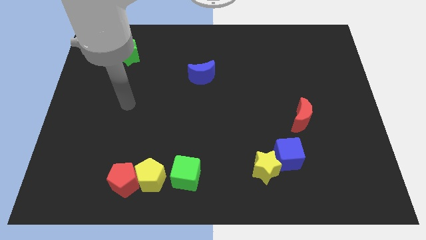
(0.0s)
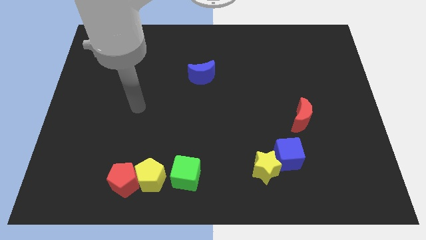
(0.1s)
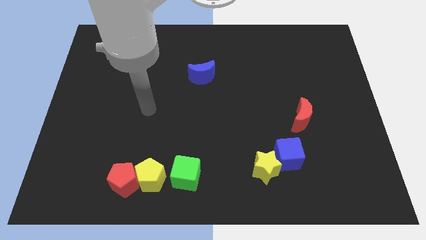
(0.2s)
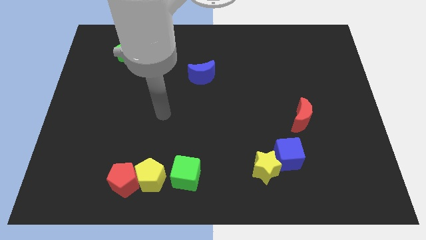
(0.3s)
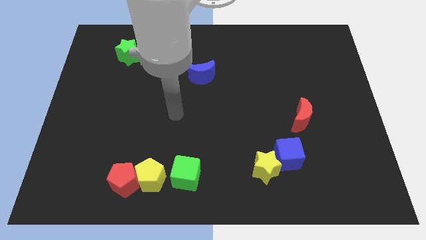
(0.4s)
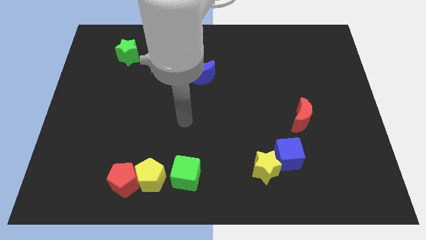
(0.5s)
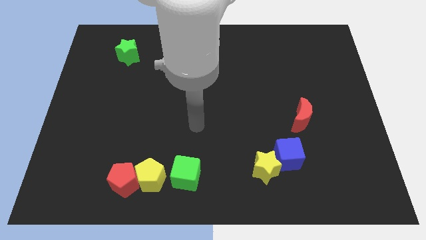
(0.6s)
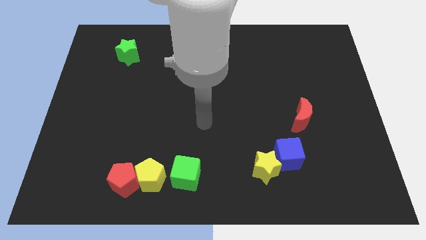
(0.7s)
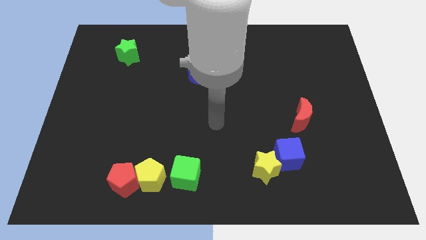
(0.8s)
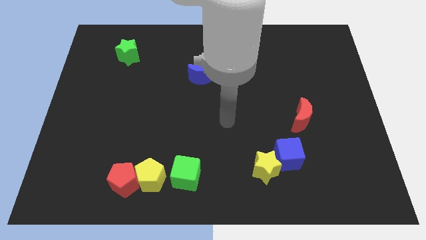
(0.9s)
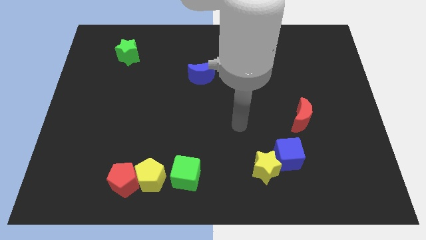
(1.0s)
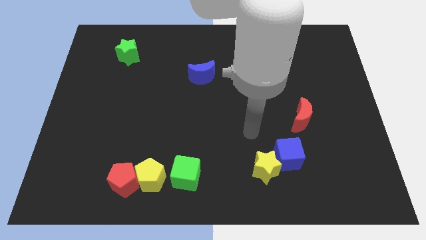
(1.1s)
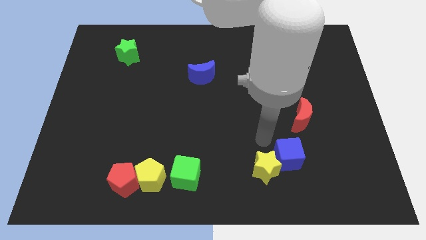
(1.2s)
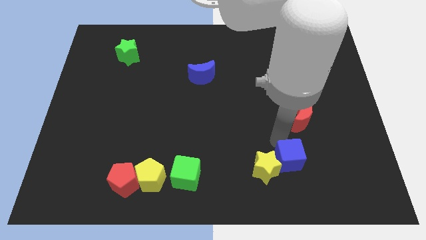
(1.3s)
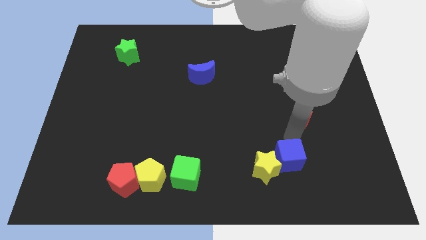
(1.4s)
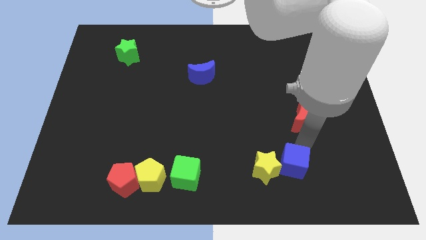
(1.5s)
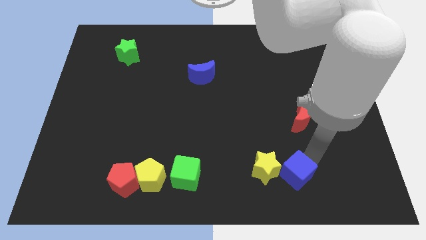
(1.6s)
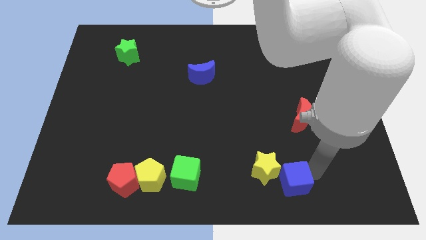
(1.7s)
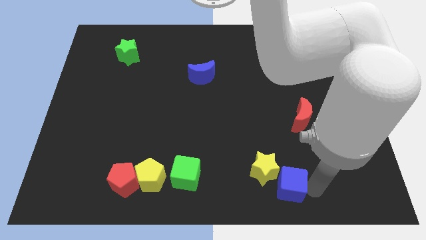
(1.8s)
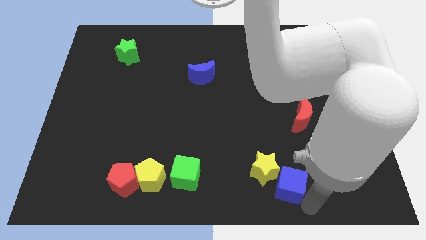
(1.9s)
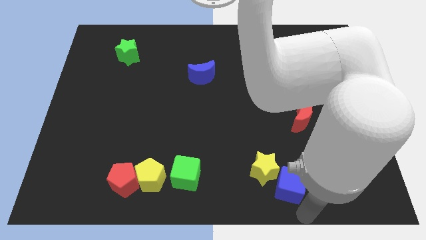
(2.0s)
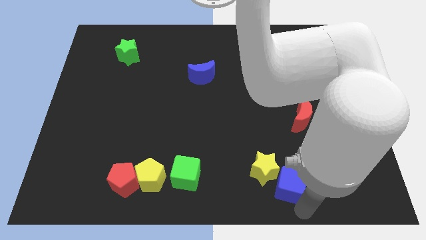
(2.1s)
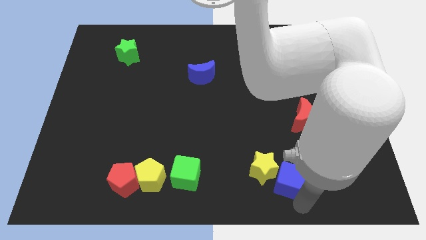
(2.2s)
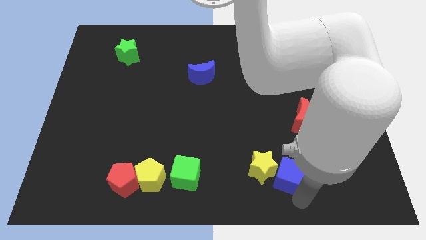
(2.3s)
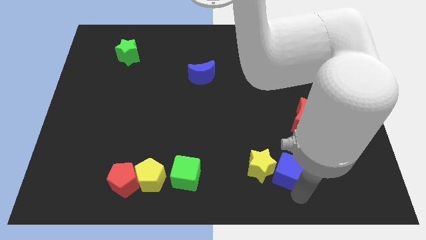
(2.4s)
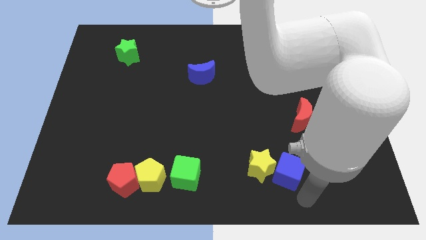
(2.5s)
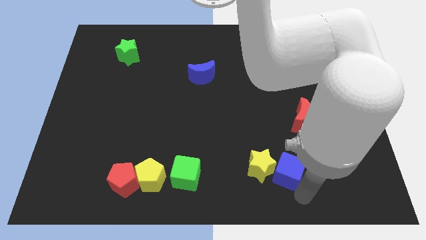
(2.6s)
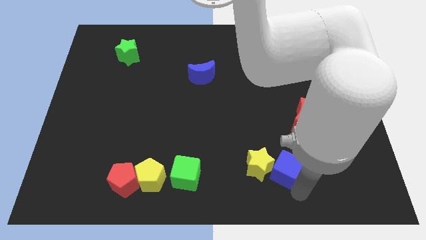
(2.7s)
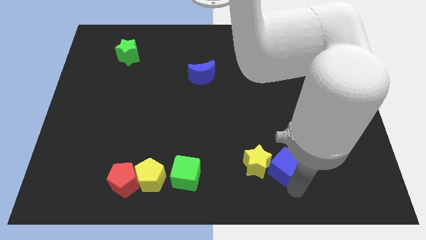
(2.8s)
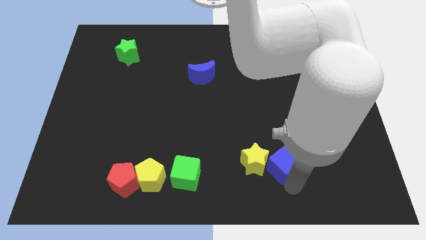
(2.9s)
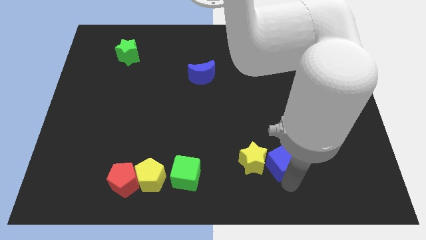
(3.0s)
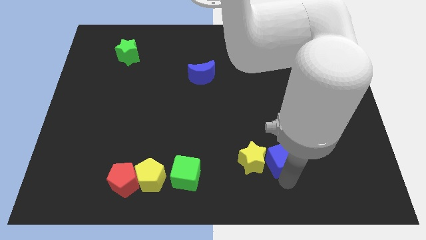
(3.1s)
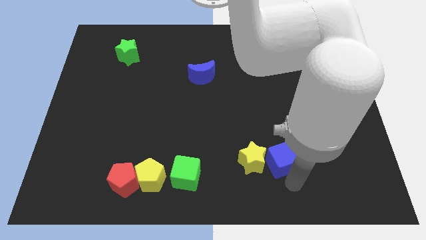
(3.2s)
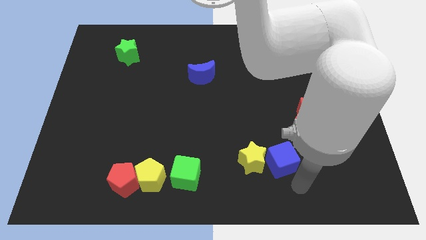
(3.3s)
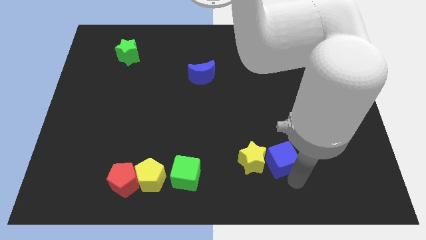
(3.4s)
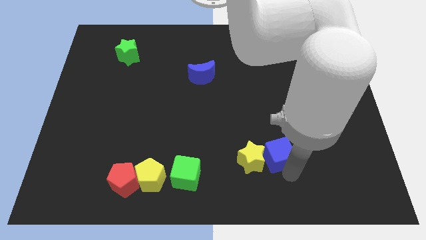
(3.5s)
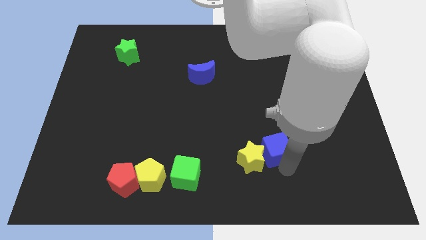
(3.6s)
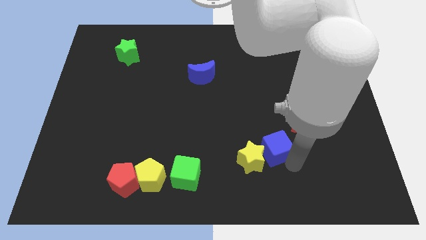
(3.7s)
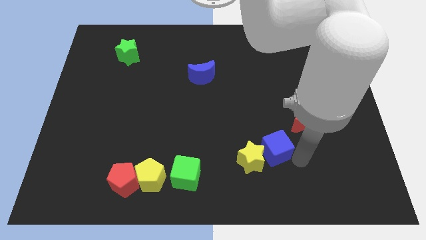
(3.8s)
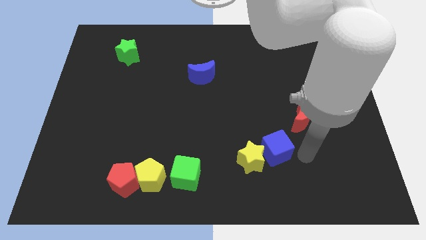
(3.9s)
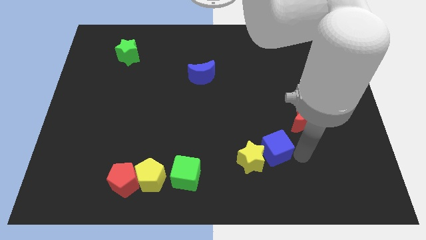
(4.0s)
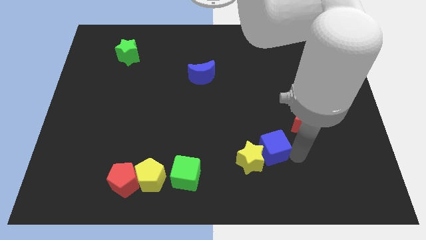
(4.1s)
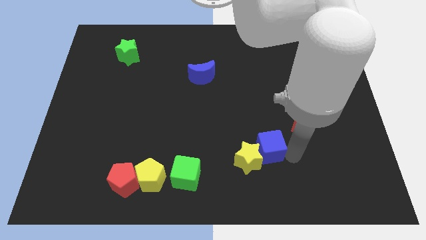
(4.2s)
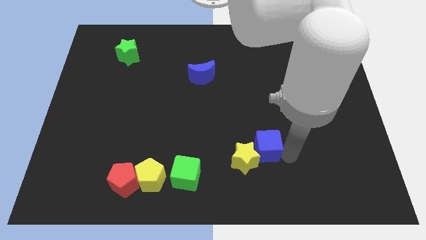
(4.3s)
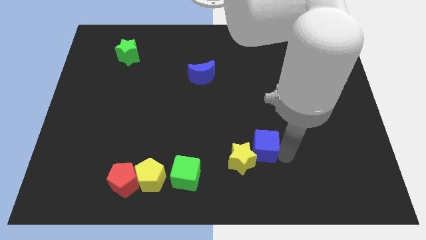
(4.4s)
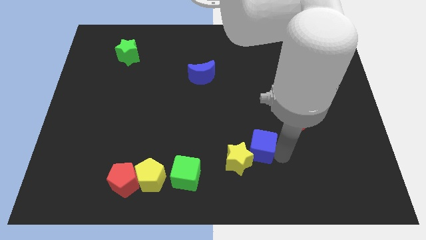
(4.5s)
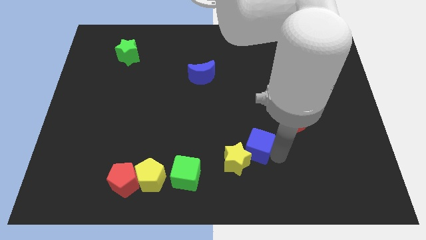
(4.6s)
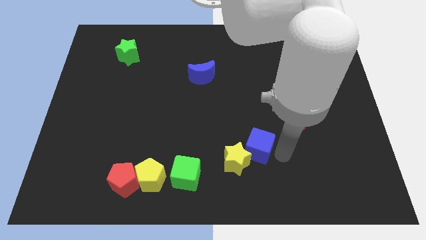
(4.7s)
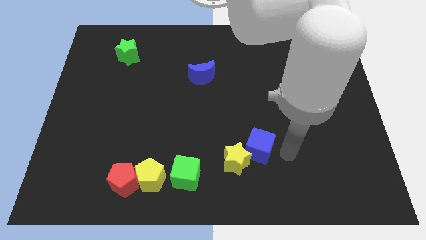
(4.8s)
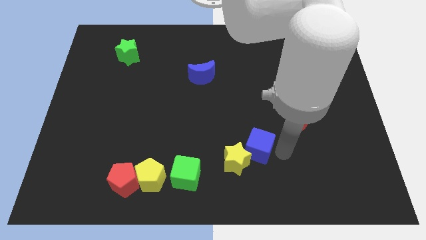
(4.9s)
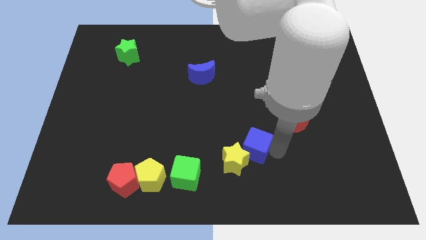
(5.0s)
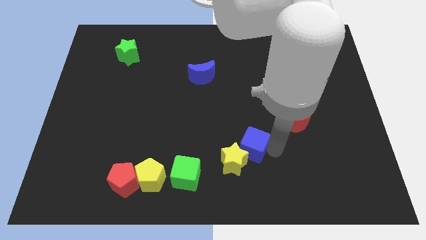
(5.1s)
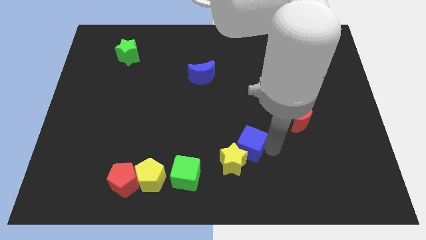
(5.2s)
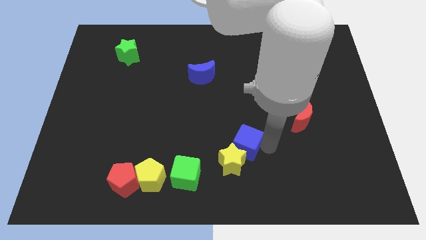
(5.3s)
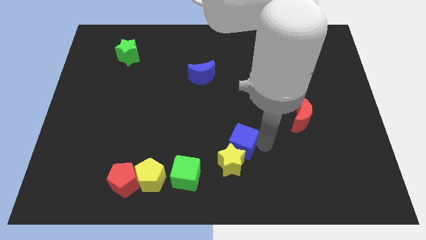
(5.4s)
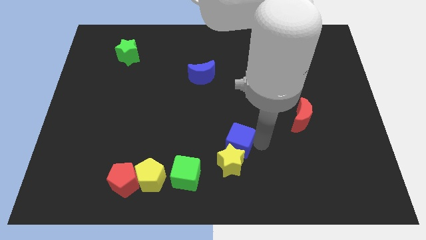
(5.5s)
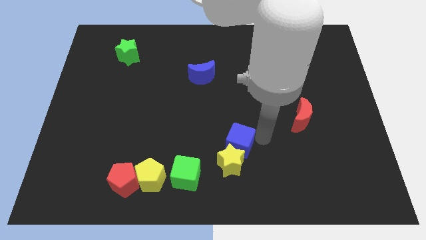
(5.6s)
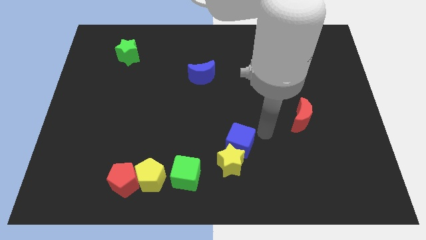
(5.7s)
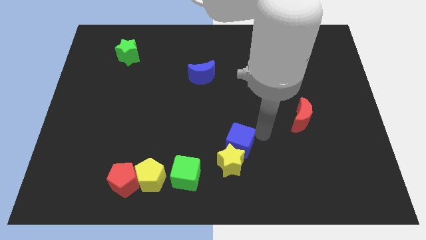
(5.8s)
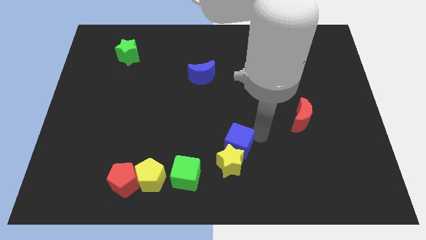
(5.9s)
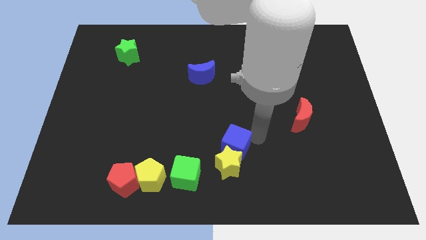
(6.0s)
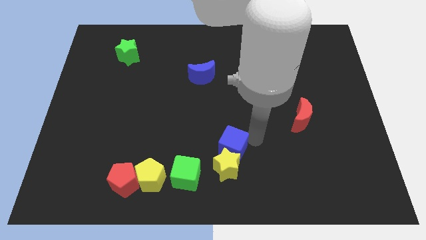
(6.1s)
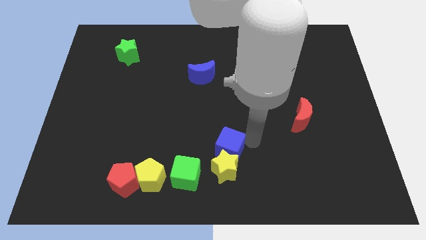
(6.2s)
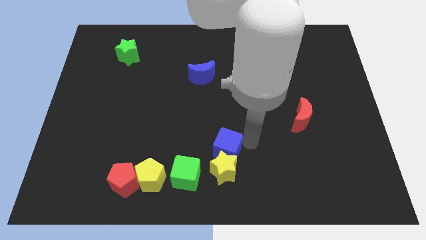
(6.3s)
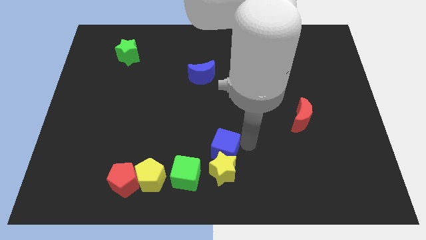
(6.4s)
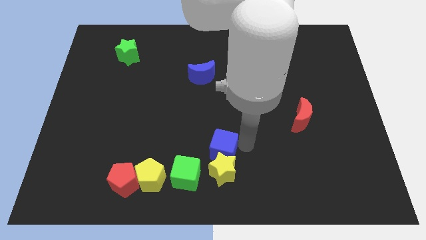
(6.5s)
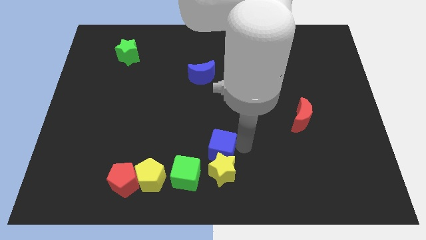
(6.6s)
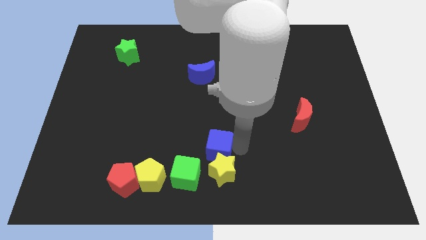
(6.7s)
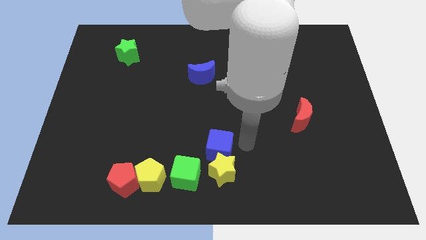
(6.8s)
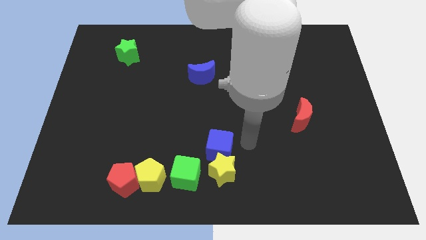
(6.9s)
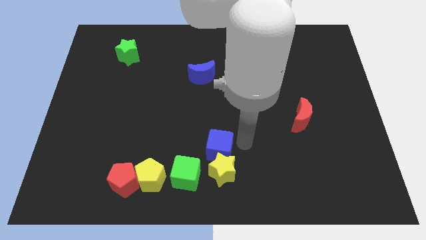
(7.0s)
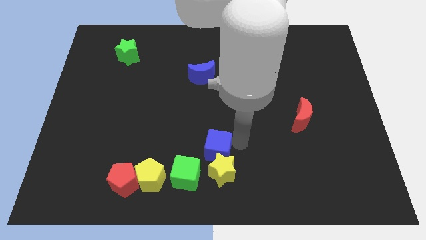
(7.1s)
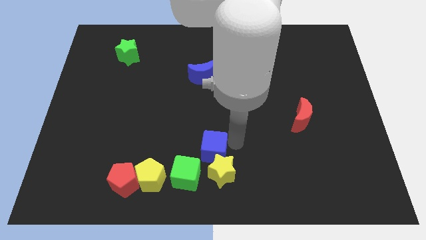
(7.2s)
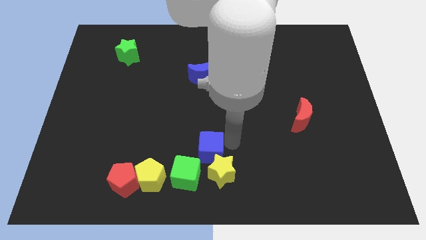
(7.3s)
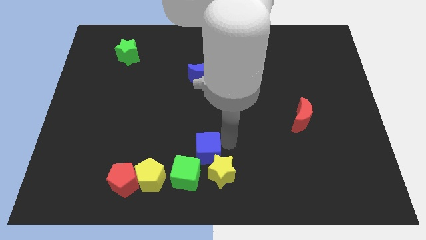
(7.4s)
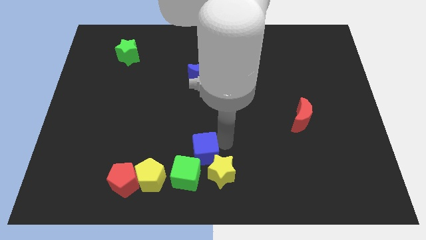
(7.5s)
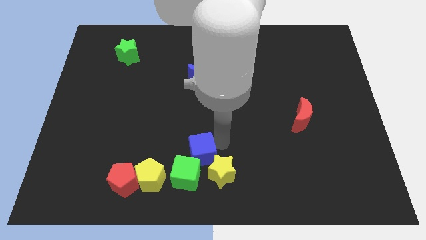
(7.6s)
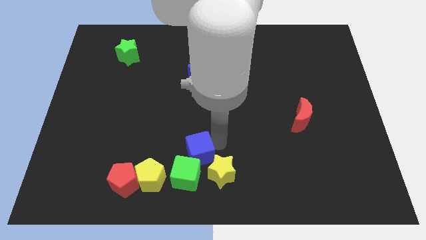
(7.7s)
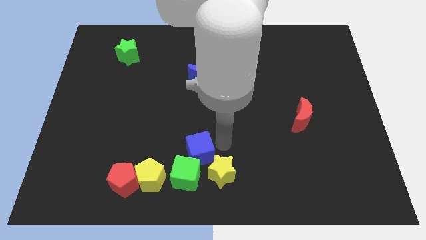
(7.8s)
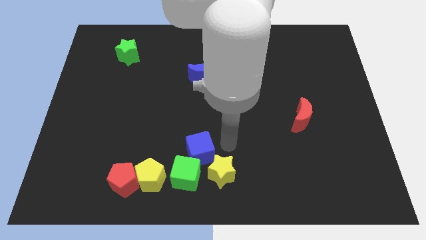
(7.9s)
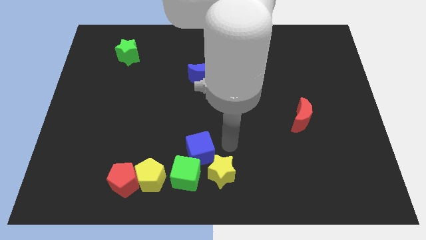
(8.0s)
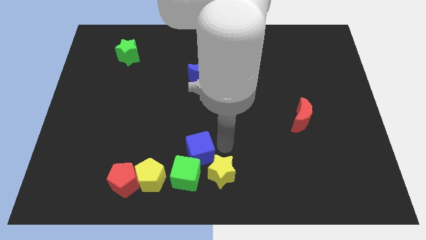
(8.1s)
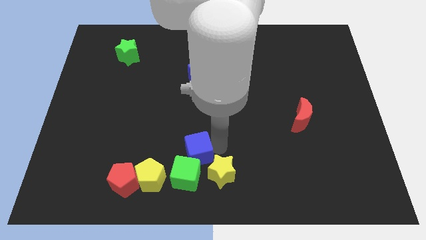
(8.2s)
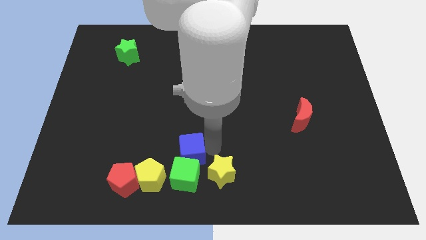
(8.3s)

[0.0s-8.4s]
push the blue cube to the left
